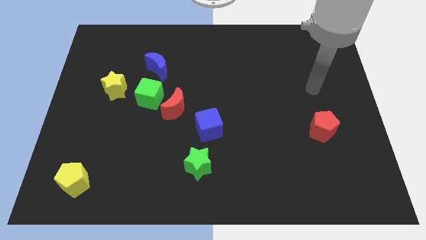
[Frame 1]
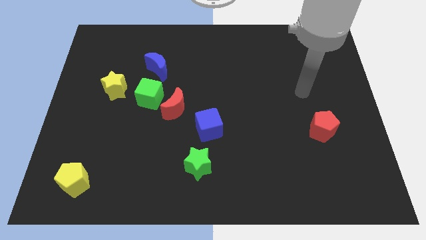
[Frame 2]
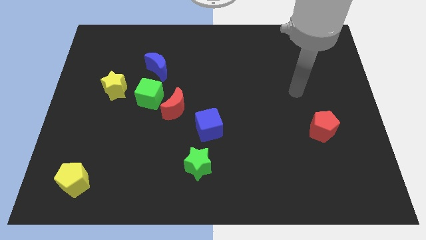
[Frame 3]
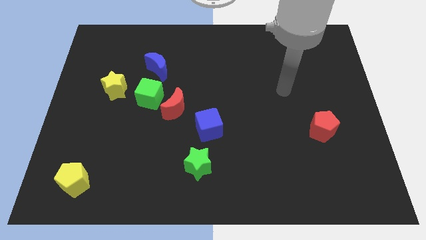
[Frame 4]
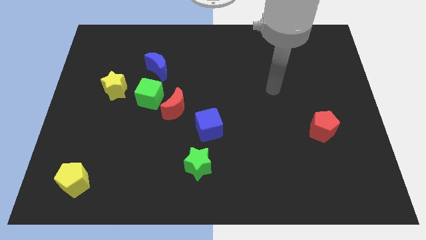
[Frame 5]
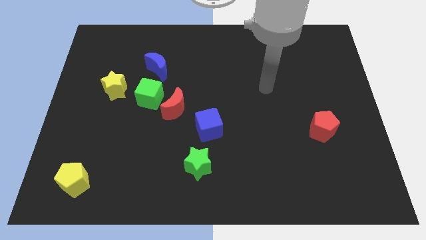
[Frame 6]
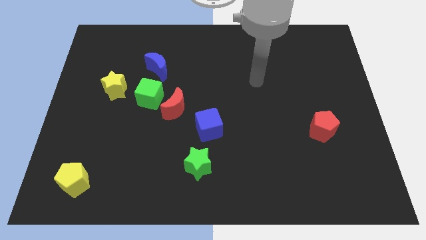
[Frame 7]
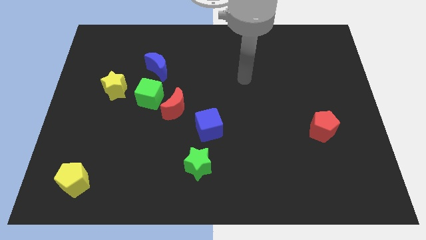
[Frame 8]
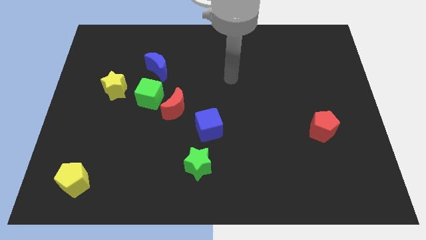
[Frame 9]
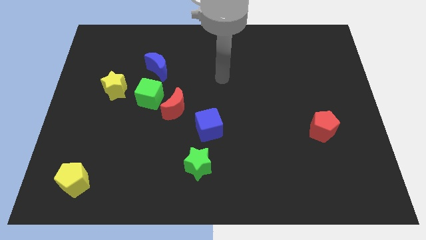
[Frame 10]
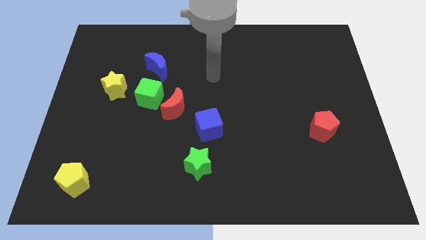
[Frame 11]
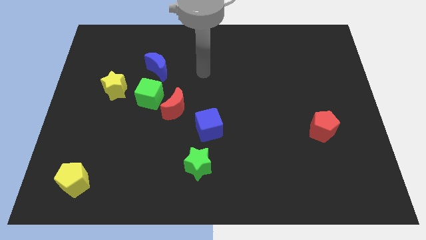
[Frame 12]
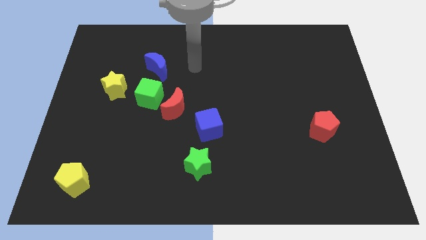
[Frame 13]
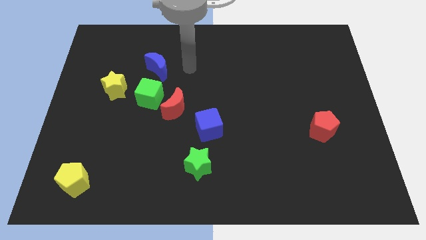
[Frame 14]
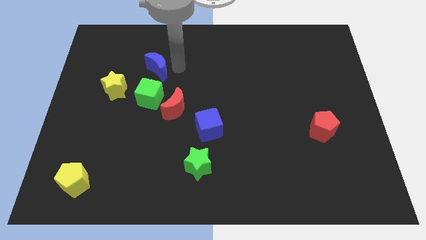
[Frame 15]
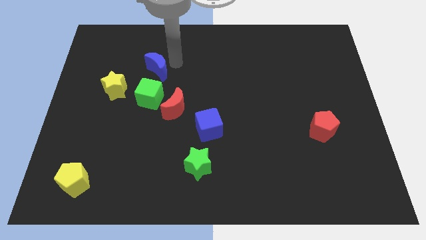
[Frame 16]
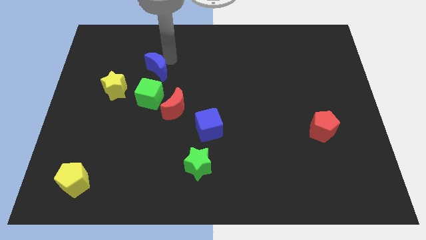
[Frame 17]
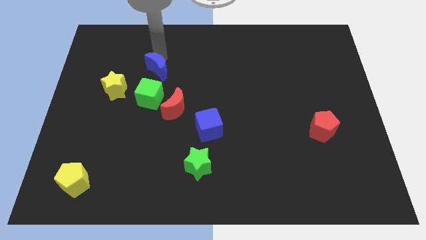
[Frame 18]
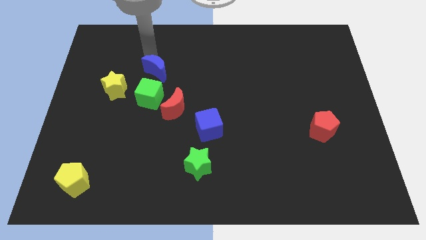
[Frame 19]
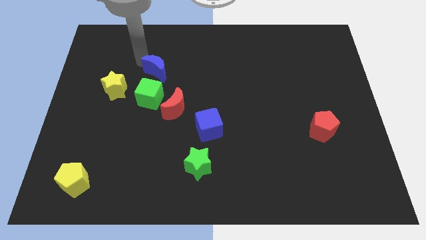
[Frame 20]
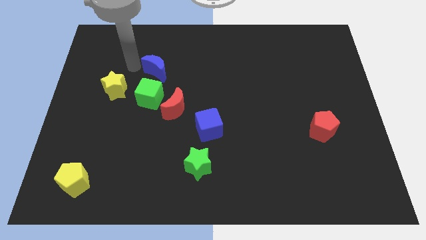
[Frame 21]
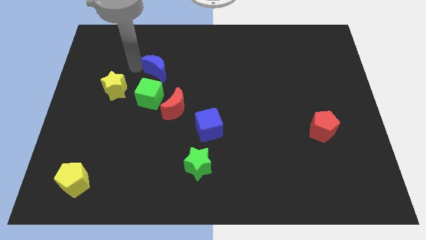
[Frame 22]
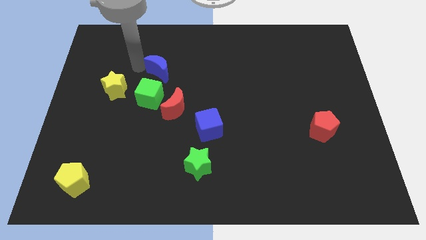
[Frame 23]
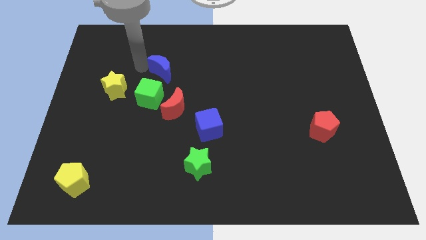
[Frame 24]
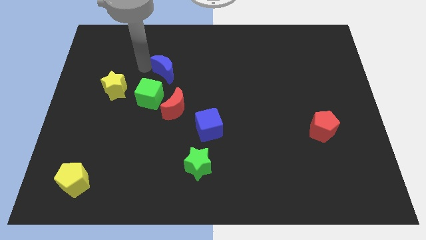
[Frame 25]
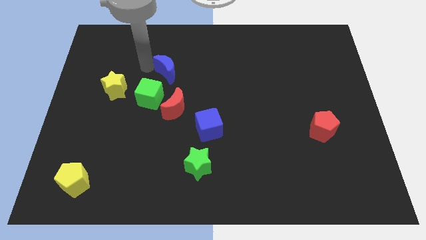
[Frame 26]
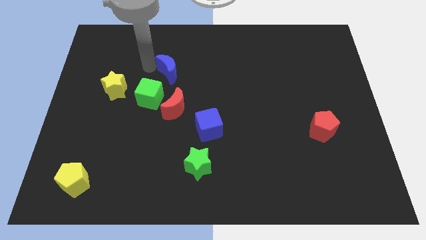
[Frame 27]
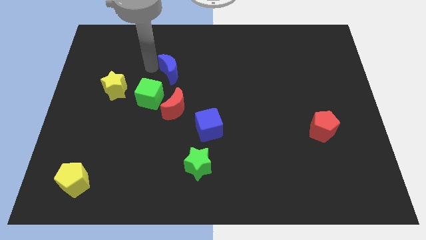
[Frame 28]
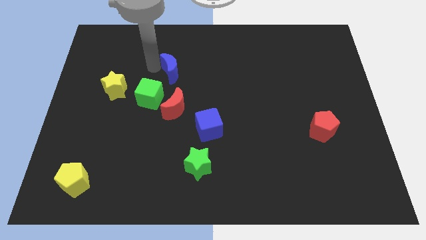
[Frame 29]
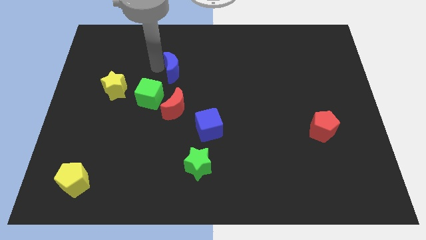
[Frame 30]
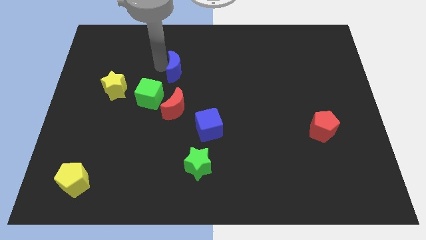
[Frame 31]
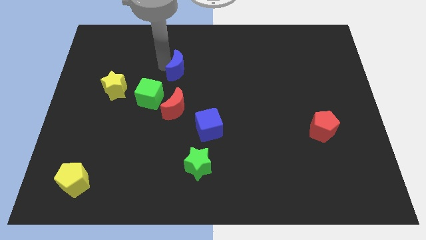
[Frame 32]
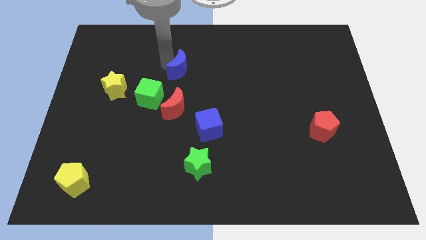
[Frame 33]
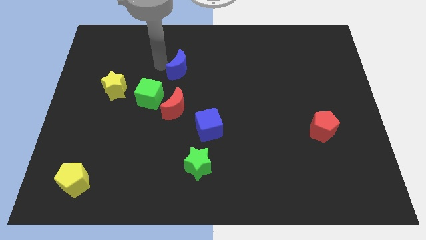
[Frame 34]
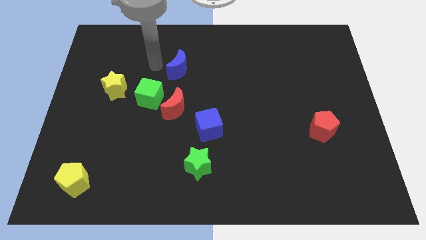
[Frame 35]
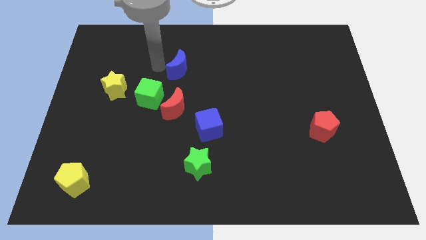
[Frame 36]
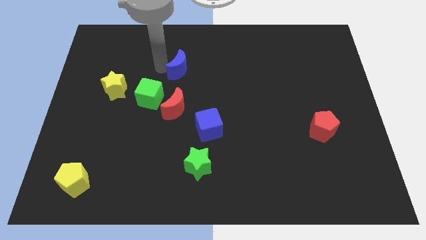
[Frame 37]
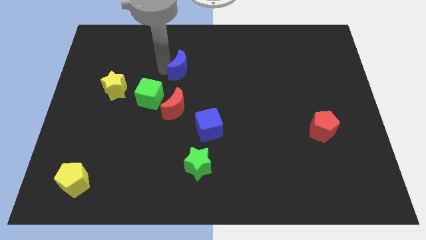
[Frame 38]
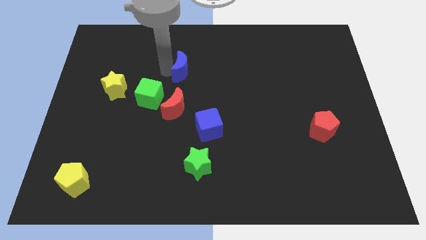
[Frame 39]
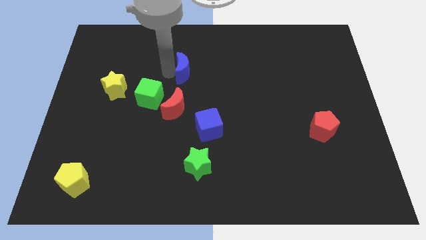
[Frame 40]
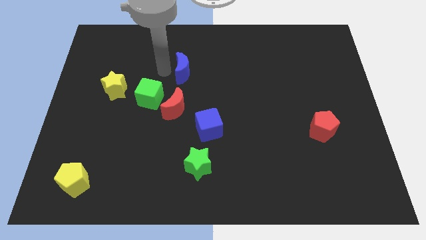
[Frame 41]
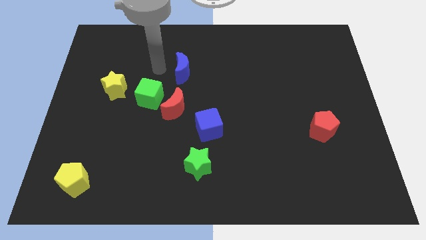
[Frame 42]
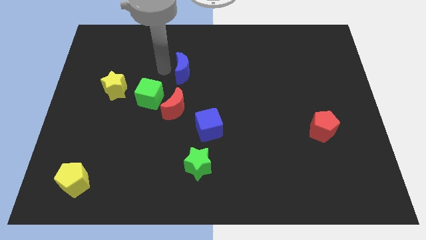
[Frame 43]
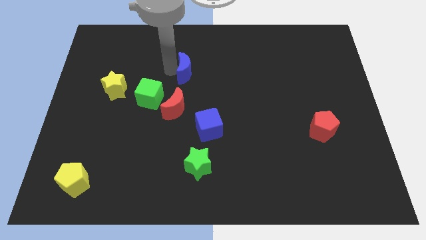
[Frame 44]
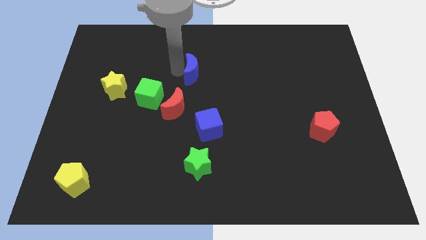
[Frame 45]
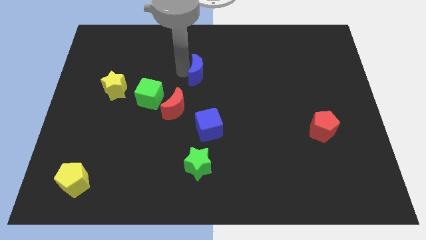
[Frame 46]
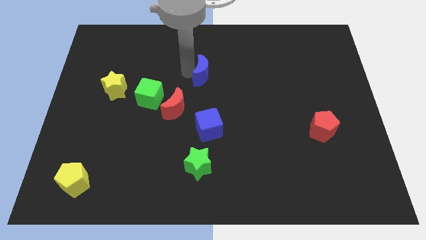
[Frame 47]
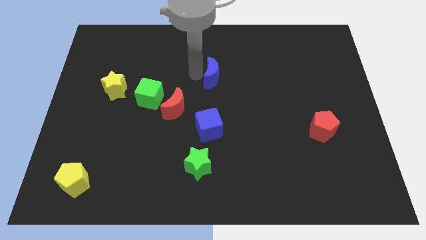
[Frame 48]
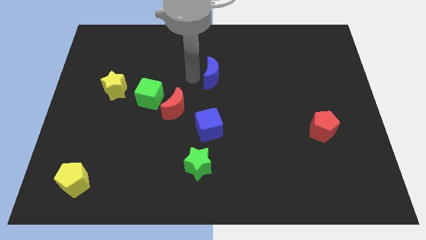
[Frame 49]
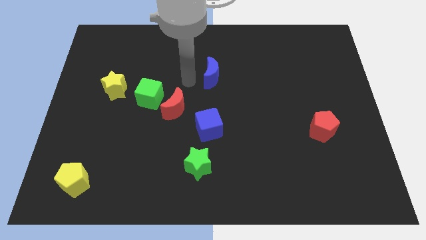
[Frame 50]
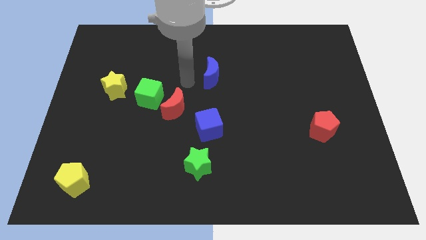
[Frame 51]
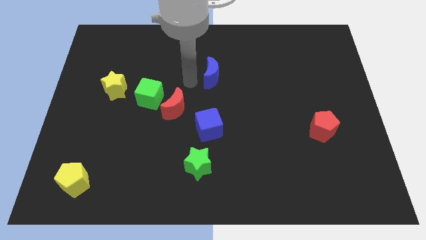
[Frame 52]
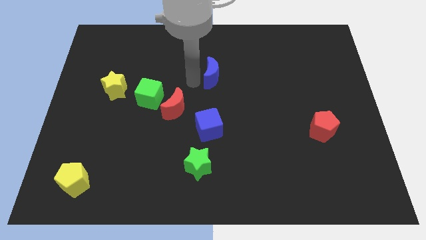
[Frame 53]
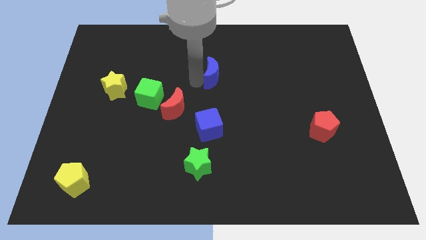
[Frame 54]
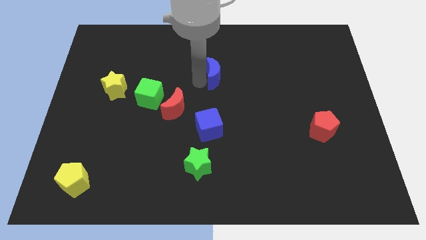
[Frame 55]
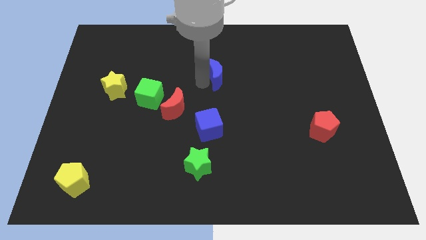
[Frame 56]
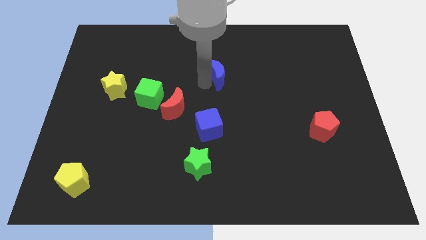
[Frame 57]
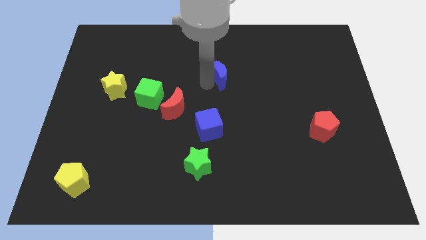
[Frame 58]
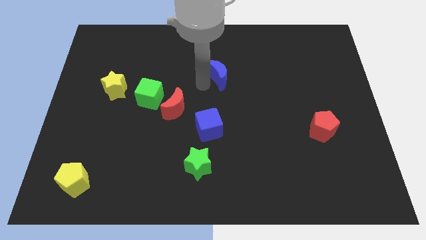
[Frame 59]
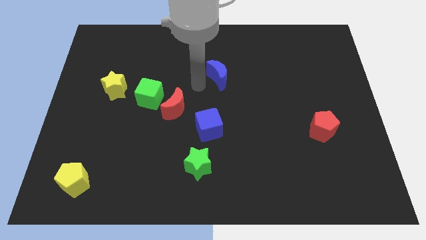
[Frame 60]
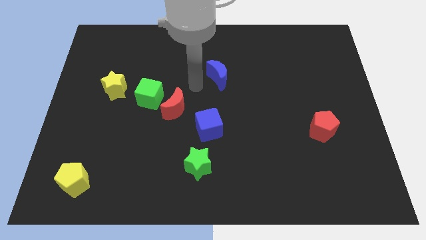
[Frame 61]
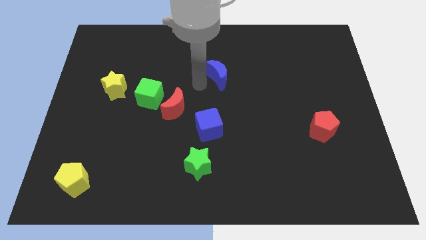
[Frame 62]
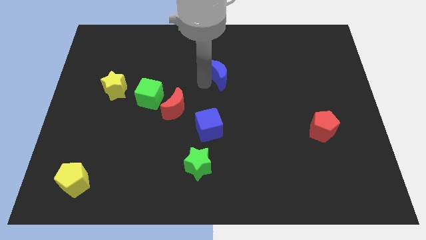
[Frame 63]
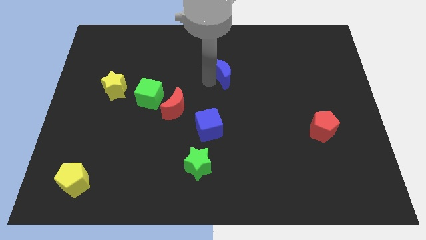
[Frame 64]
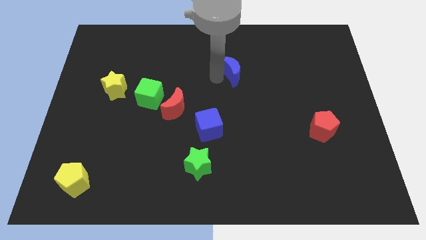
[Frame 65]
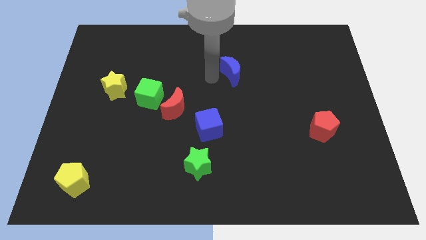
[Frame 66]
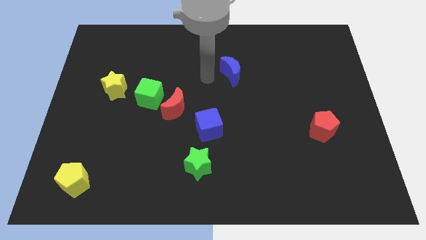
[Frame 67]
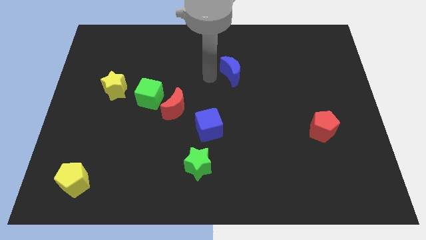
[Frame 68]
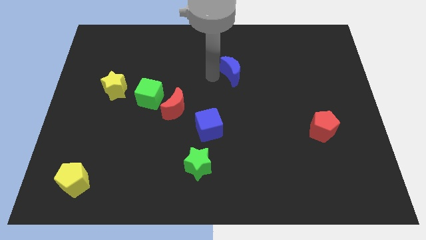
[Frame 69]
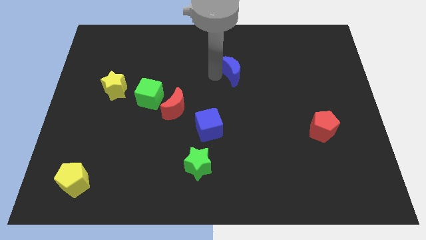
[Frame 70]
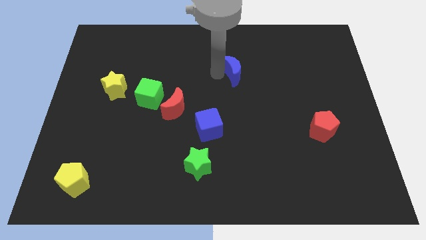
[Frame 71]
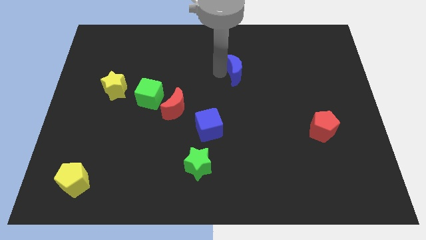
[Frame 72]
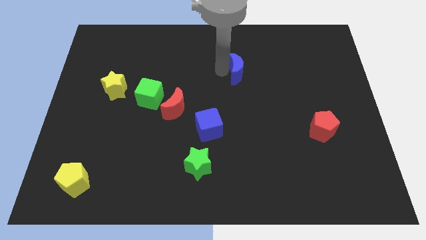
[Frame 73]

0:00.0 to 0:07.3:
push the blue moon right

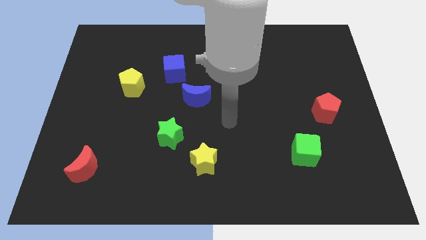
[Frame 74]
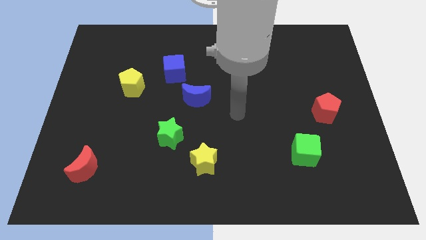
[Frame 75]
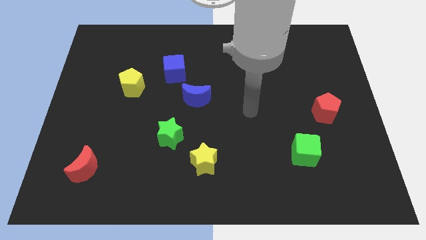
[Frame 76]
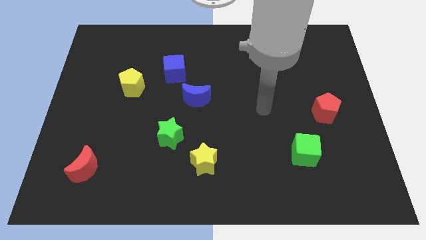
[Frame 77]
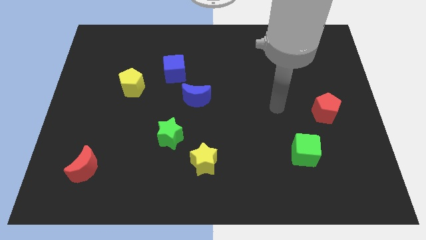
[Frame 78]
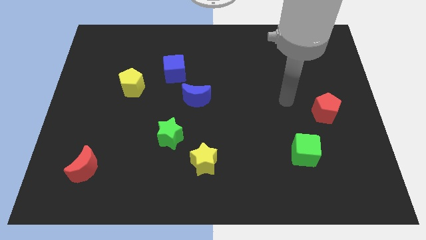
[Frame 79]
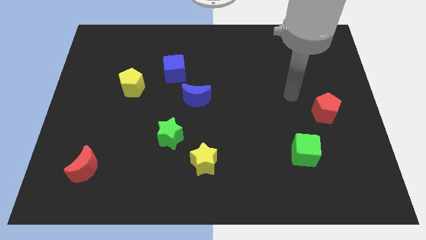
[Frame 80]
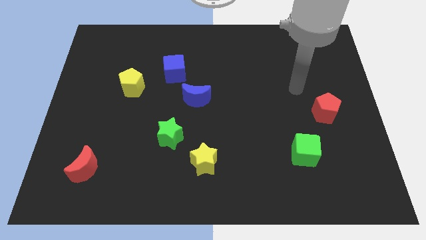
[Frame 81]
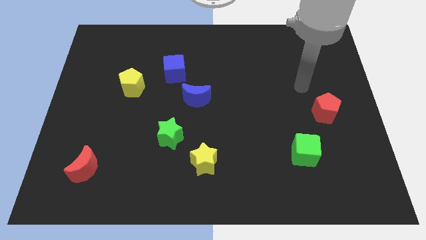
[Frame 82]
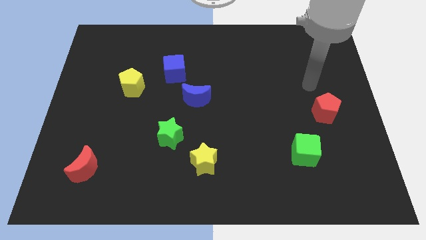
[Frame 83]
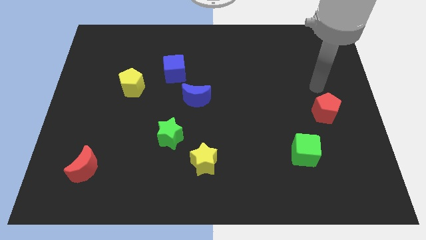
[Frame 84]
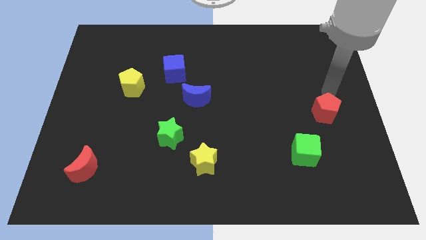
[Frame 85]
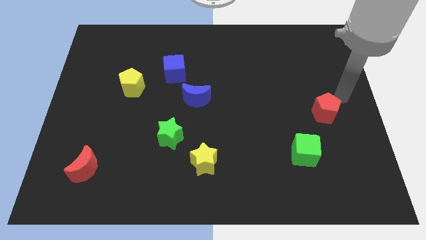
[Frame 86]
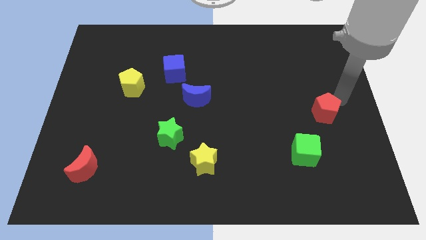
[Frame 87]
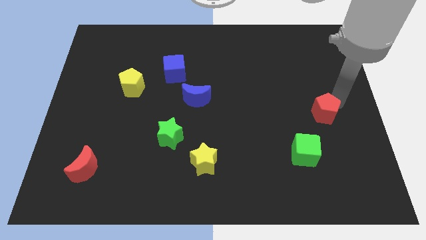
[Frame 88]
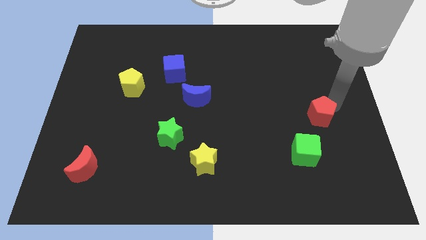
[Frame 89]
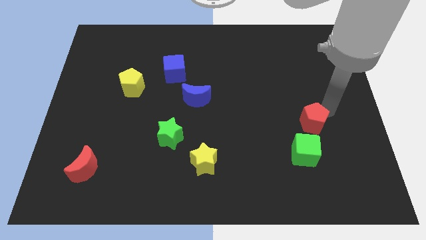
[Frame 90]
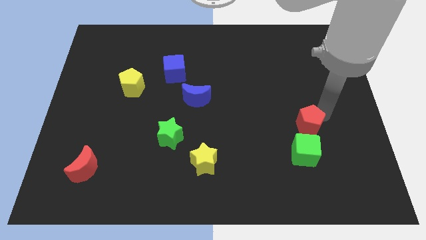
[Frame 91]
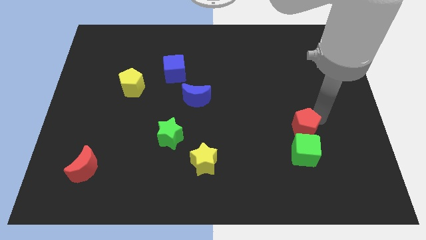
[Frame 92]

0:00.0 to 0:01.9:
push the red pentagon downwards and to the left diagonally somewhat
